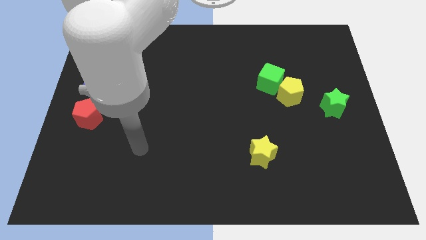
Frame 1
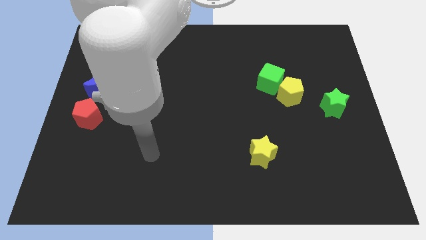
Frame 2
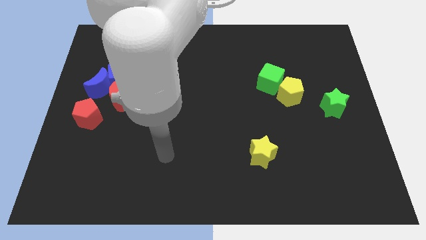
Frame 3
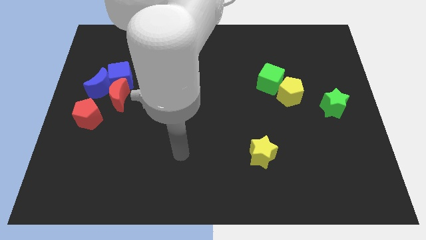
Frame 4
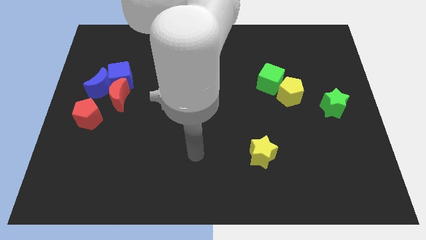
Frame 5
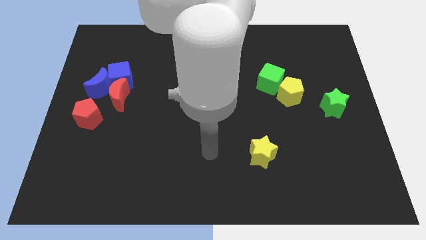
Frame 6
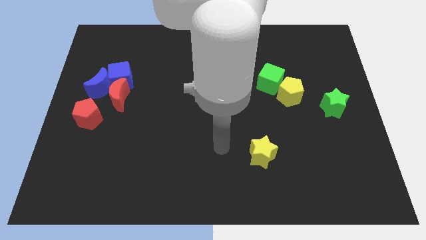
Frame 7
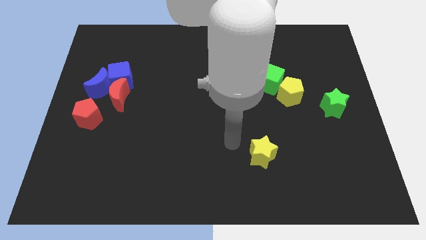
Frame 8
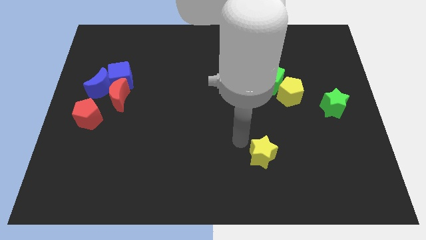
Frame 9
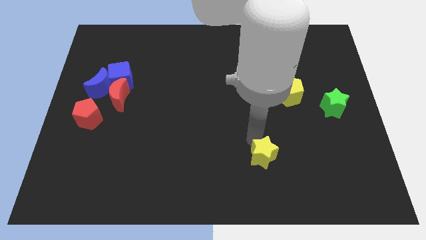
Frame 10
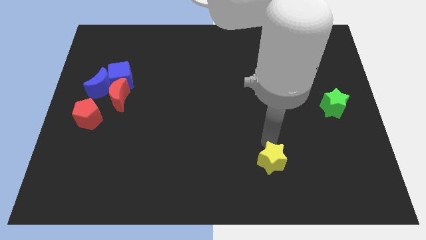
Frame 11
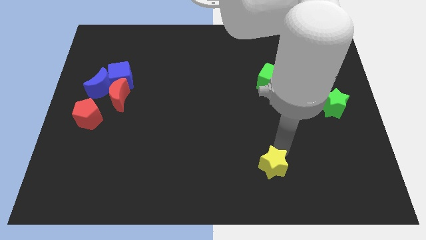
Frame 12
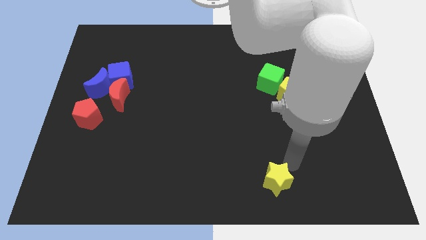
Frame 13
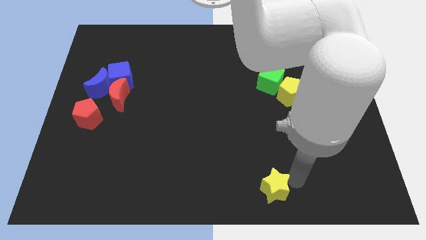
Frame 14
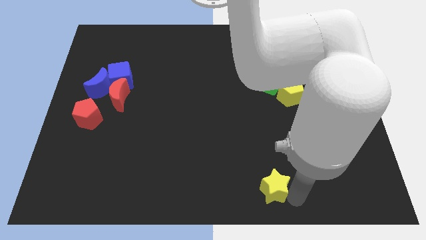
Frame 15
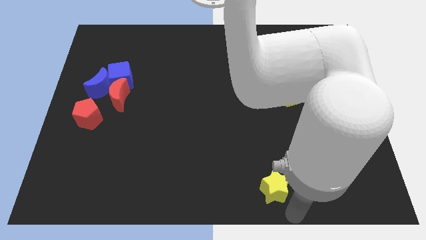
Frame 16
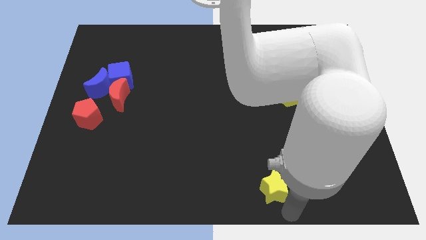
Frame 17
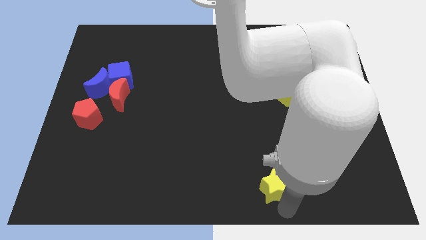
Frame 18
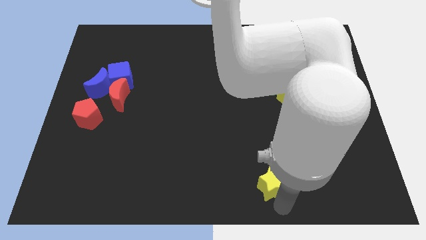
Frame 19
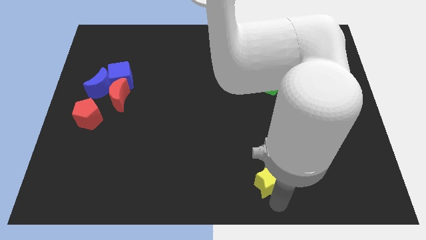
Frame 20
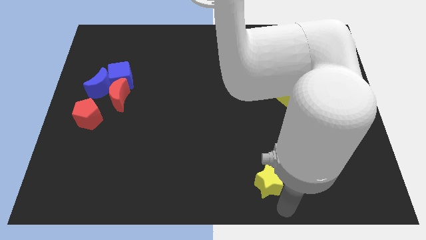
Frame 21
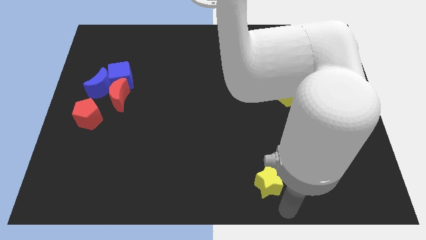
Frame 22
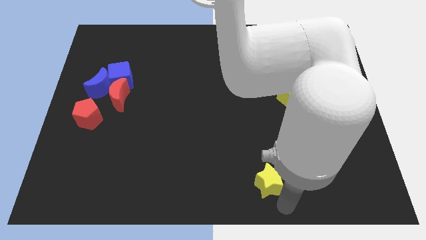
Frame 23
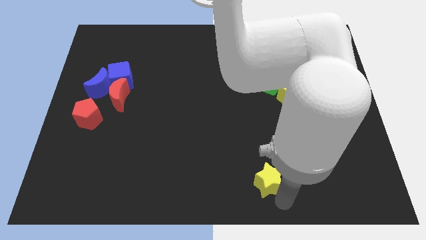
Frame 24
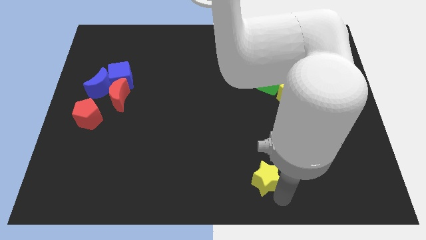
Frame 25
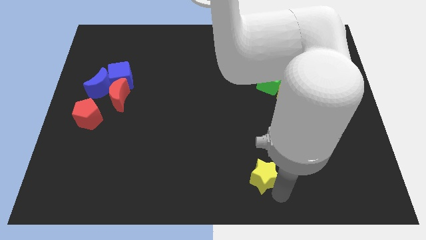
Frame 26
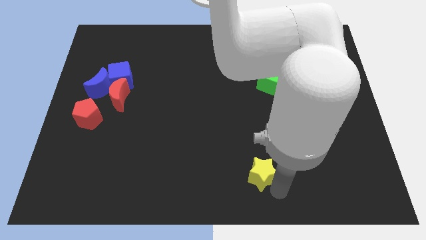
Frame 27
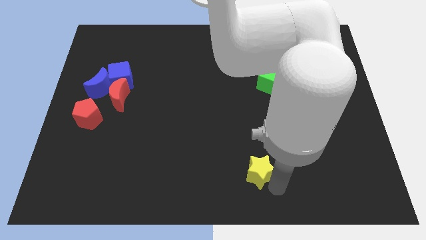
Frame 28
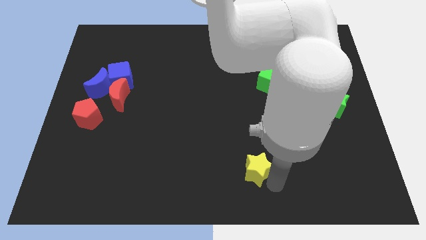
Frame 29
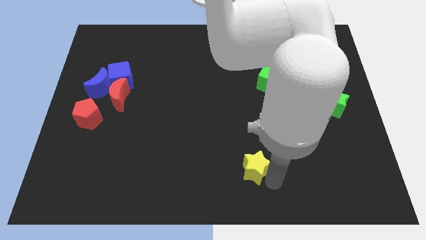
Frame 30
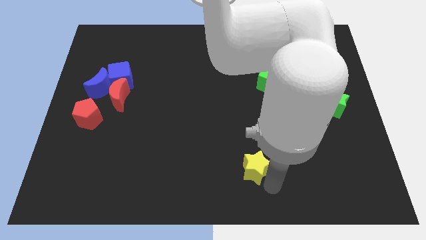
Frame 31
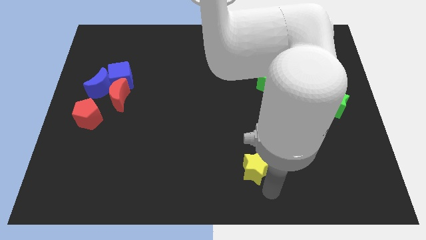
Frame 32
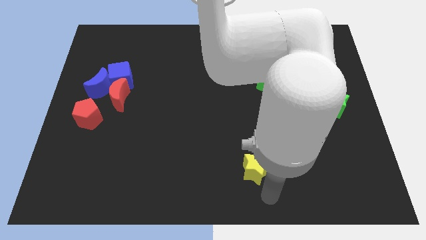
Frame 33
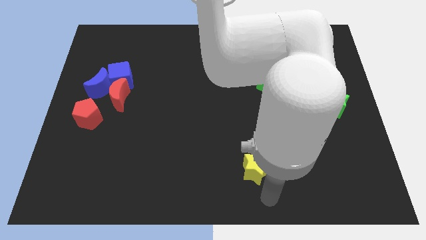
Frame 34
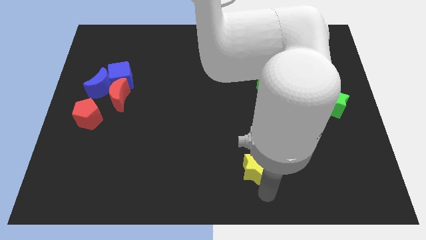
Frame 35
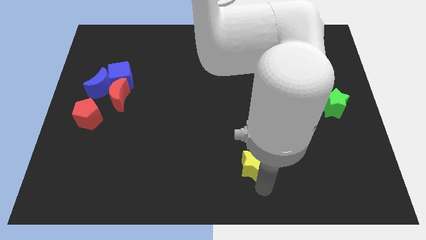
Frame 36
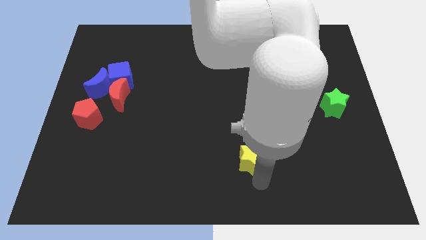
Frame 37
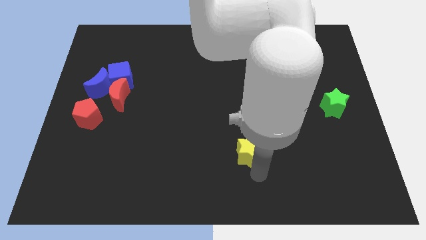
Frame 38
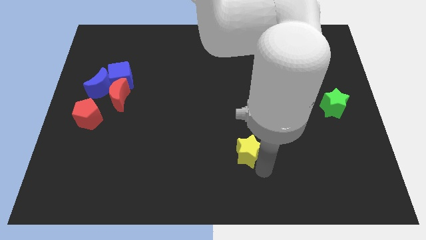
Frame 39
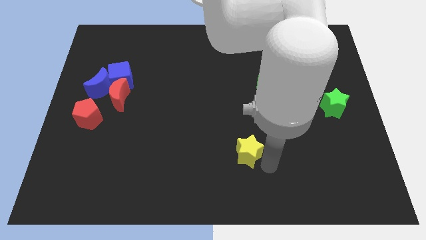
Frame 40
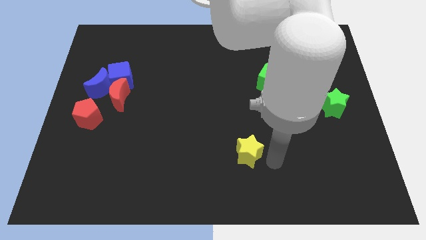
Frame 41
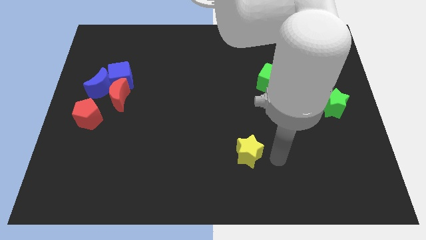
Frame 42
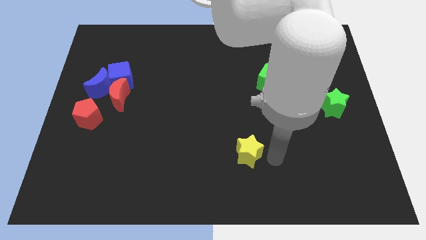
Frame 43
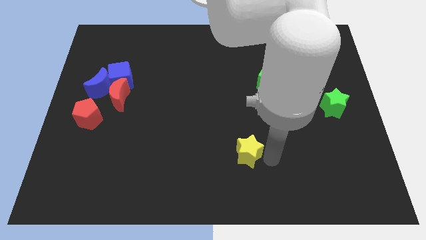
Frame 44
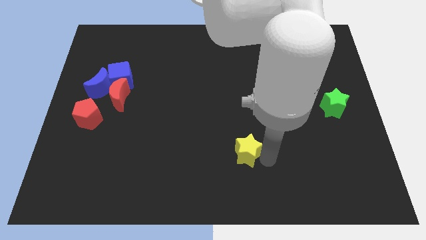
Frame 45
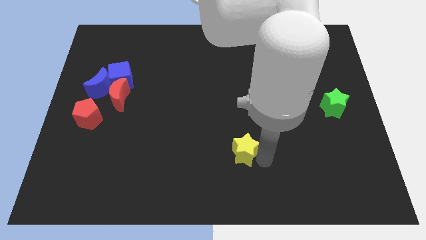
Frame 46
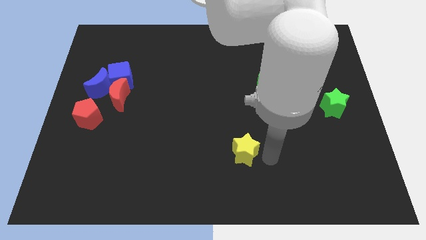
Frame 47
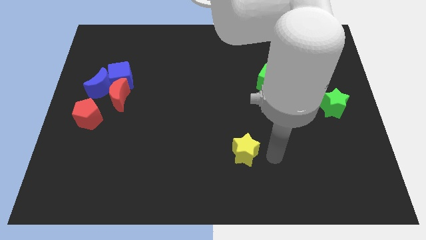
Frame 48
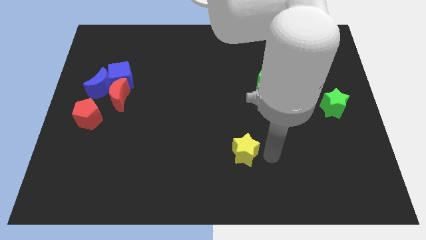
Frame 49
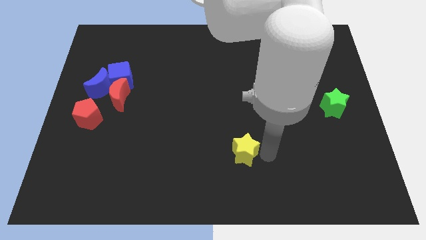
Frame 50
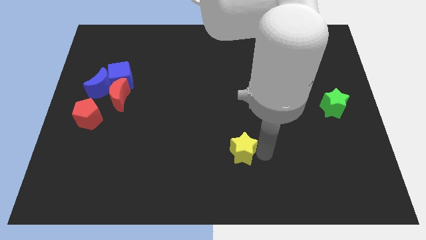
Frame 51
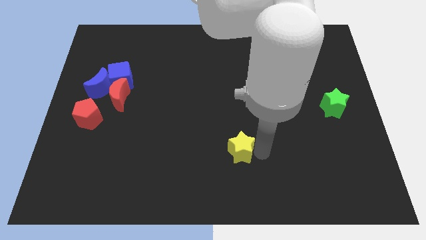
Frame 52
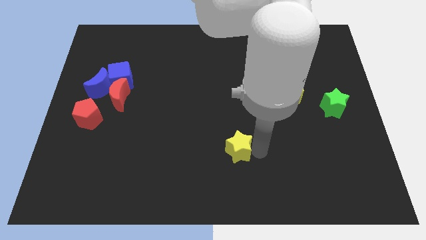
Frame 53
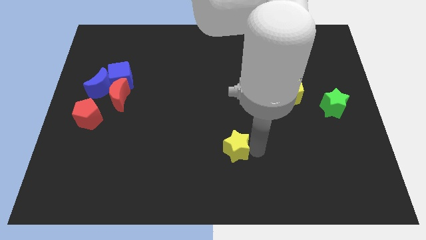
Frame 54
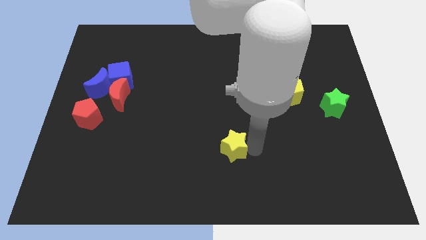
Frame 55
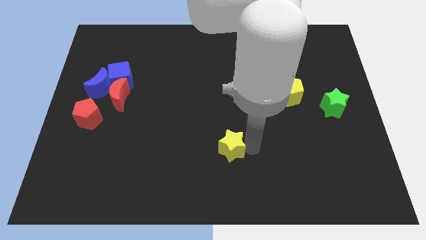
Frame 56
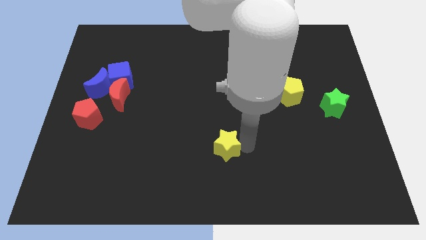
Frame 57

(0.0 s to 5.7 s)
move the yellow star a little bit left

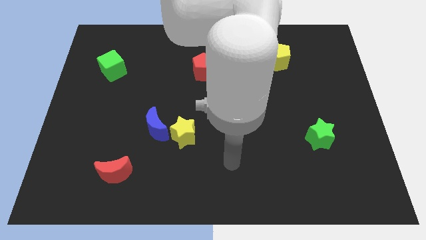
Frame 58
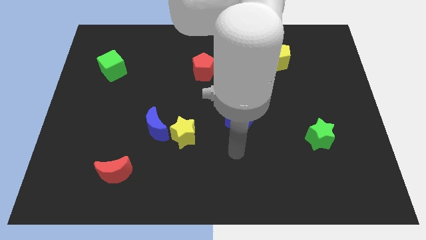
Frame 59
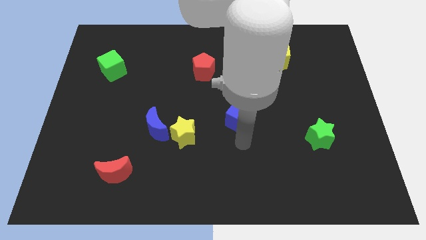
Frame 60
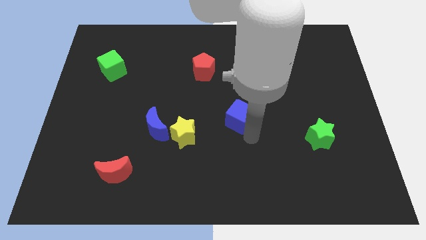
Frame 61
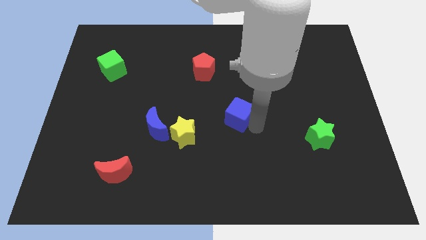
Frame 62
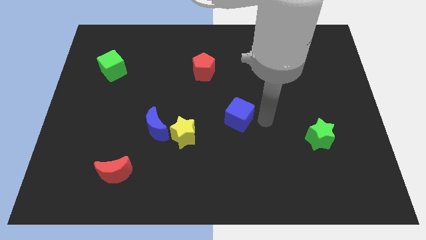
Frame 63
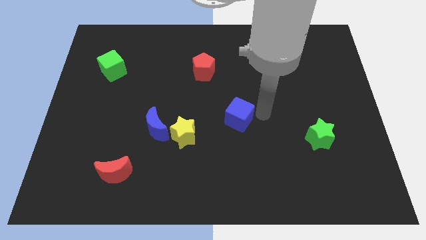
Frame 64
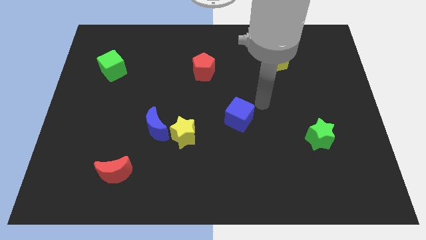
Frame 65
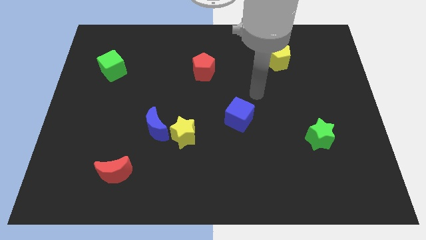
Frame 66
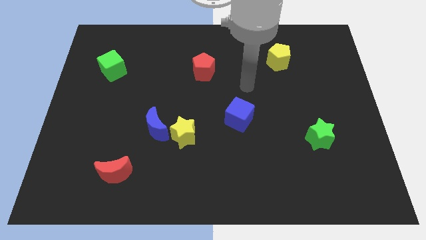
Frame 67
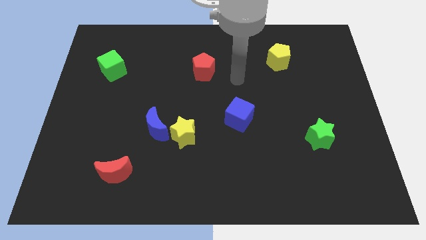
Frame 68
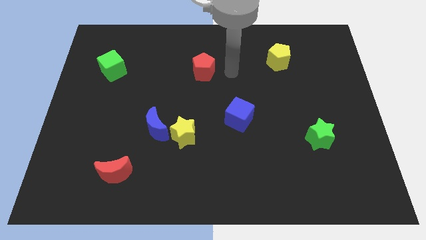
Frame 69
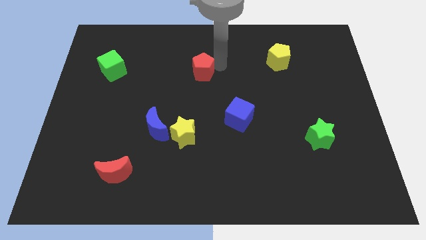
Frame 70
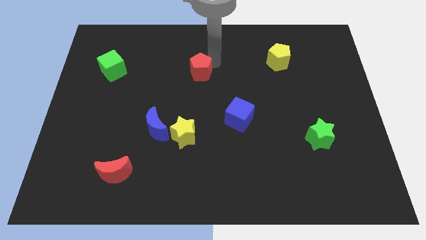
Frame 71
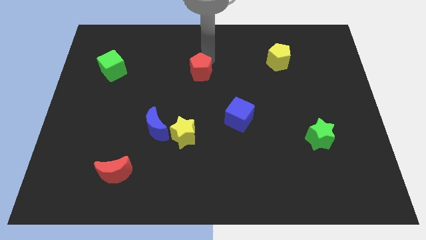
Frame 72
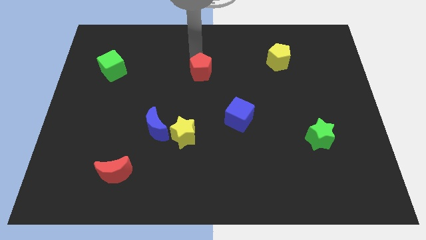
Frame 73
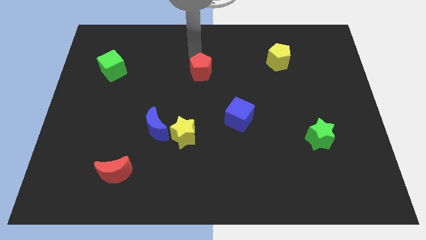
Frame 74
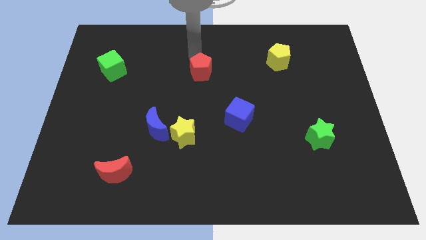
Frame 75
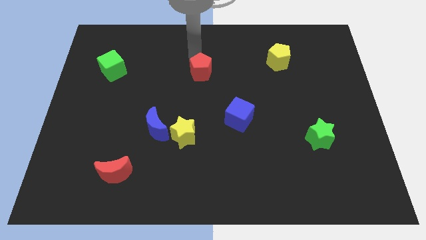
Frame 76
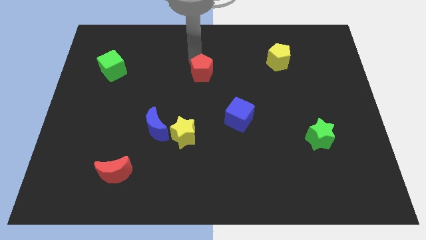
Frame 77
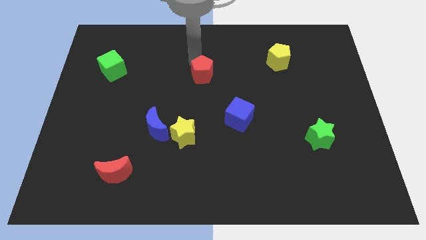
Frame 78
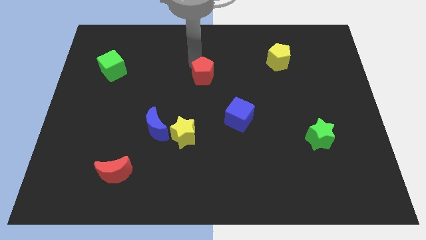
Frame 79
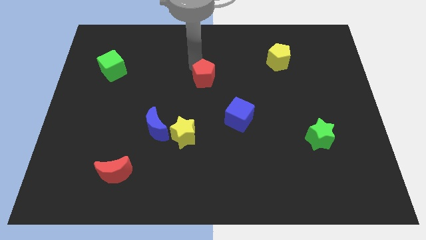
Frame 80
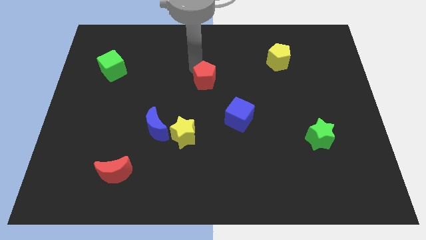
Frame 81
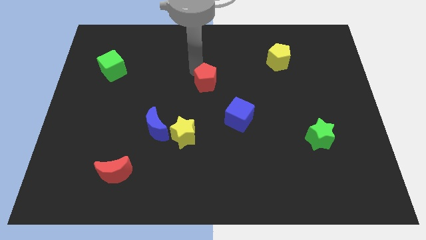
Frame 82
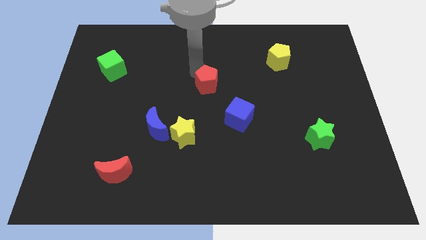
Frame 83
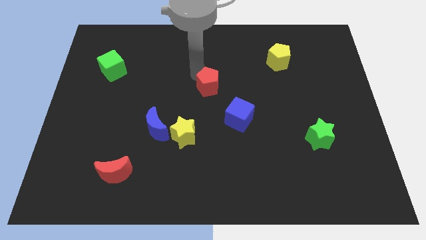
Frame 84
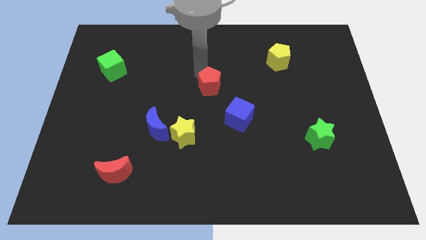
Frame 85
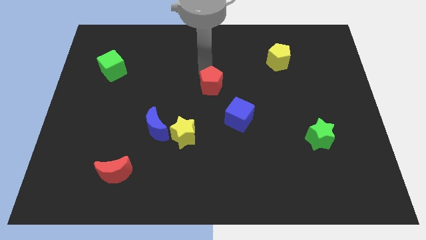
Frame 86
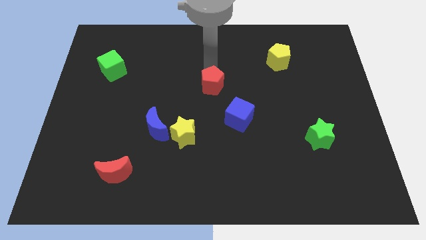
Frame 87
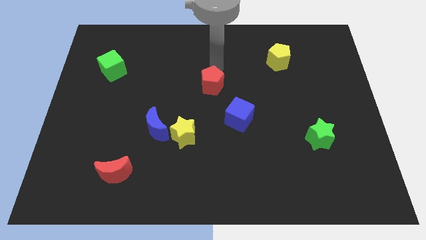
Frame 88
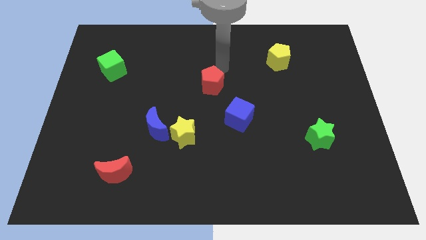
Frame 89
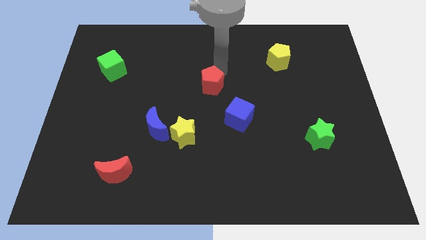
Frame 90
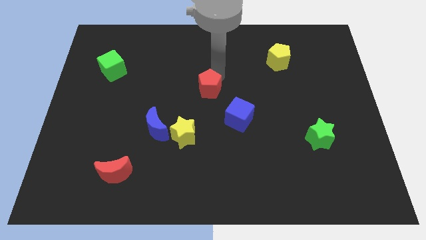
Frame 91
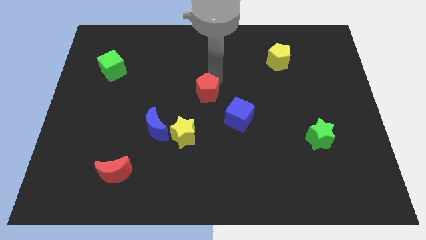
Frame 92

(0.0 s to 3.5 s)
move the red pentagon a little down
